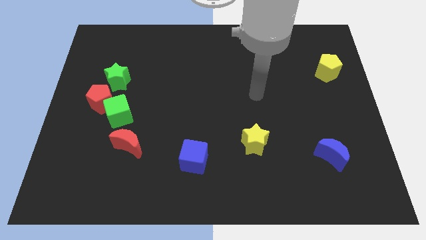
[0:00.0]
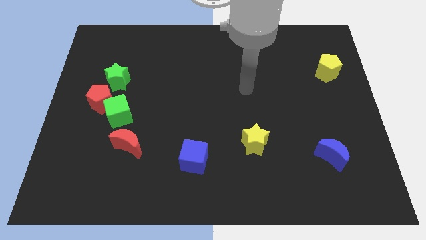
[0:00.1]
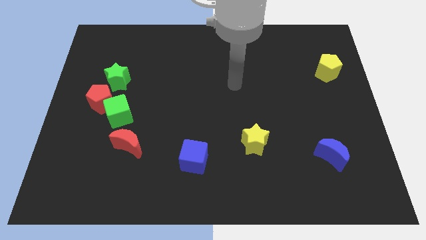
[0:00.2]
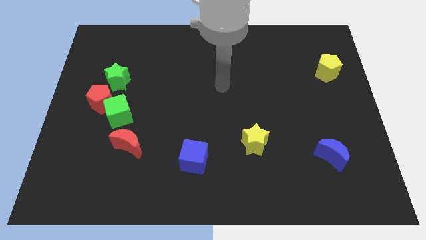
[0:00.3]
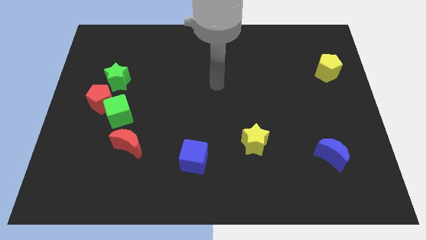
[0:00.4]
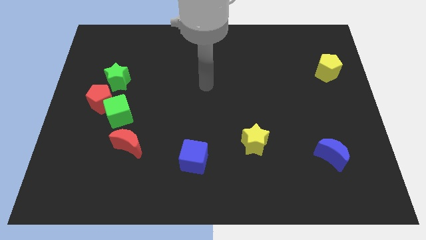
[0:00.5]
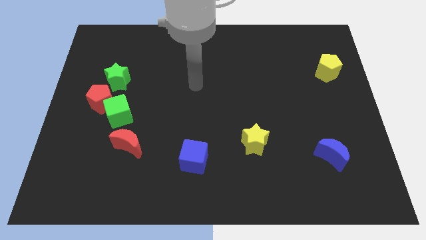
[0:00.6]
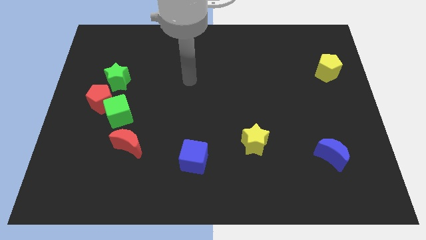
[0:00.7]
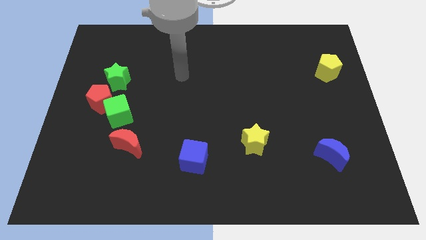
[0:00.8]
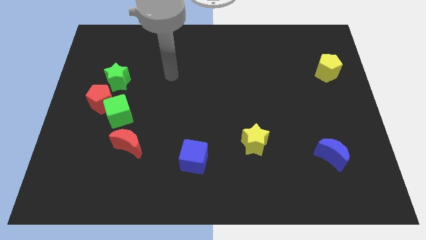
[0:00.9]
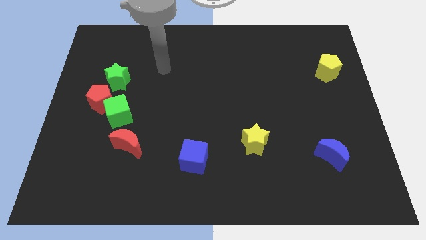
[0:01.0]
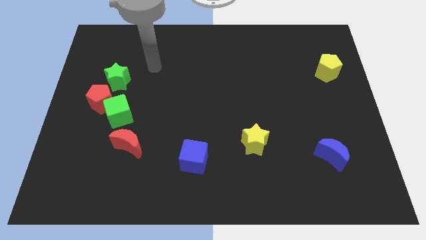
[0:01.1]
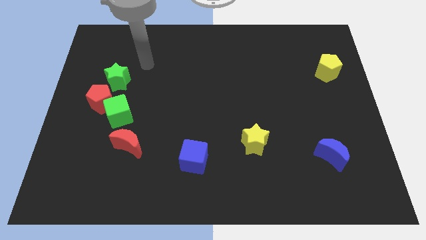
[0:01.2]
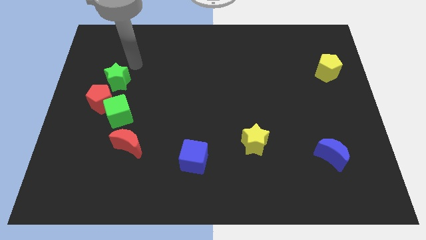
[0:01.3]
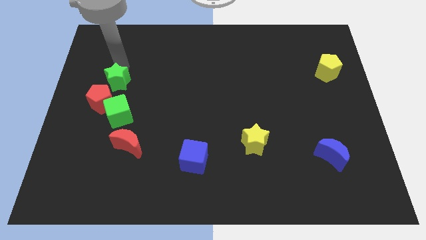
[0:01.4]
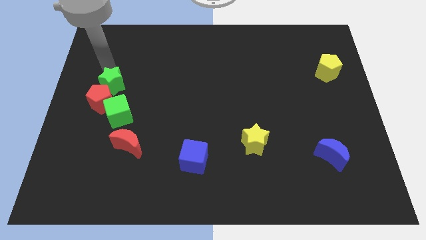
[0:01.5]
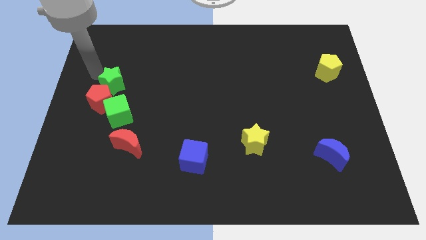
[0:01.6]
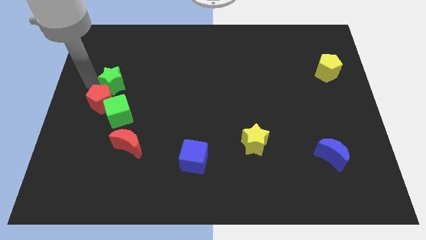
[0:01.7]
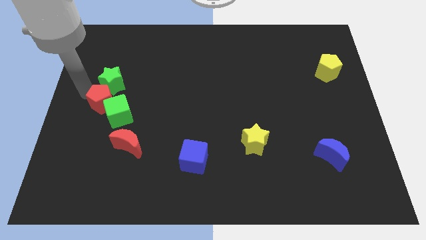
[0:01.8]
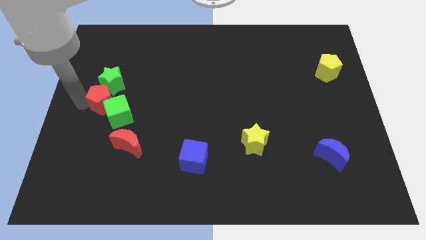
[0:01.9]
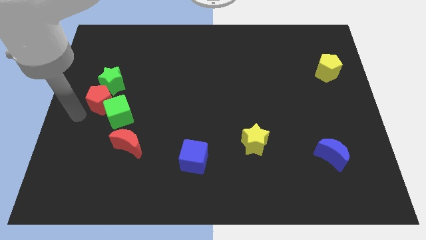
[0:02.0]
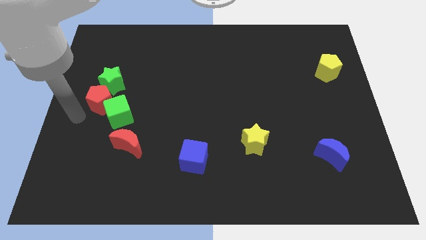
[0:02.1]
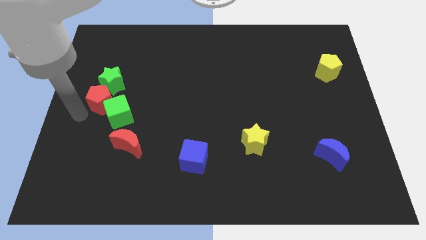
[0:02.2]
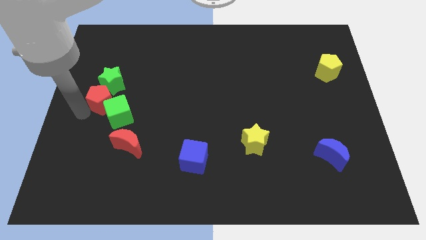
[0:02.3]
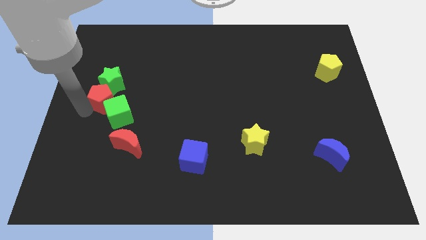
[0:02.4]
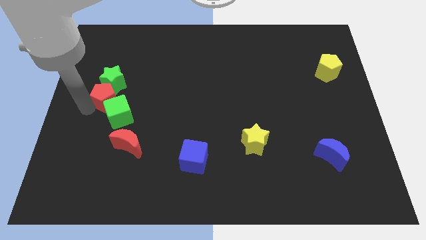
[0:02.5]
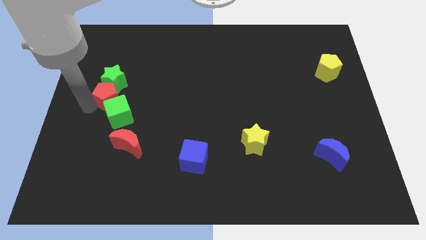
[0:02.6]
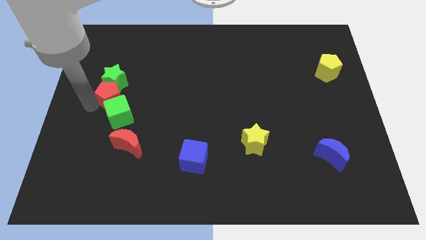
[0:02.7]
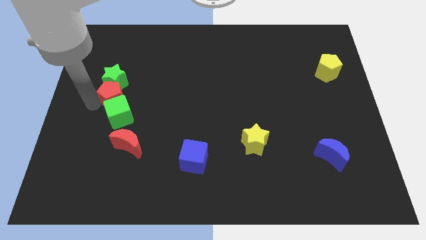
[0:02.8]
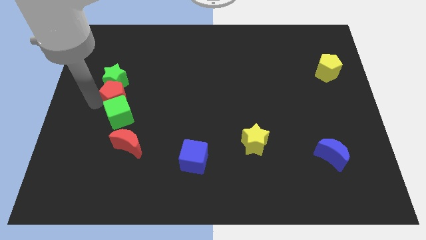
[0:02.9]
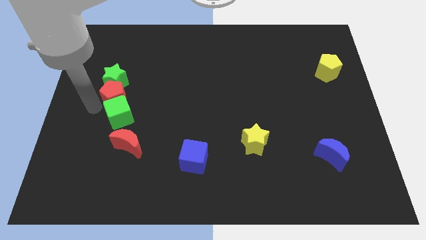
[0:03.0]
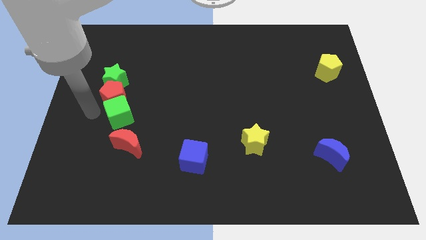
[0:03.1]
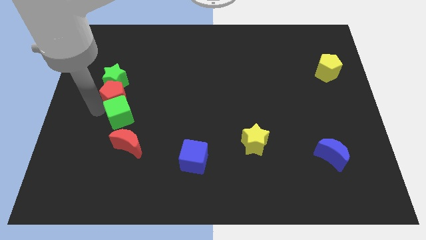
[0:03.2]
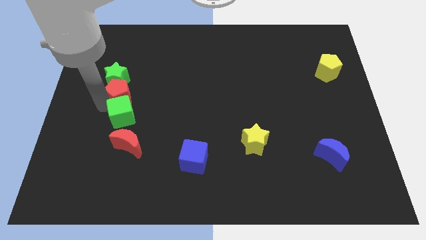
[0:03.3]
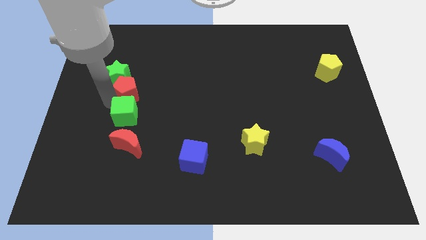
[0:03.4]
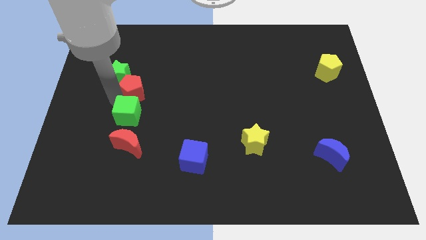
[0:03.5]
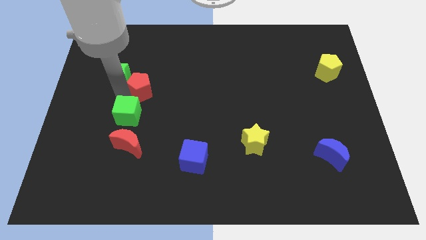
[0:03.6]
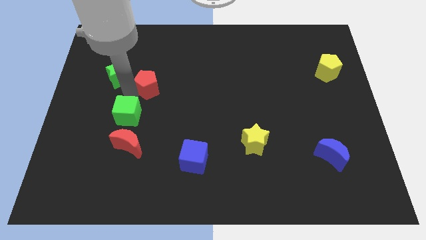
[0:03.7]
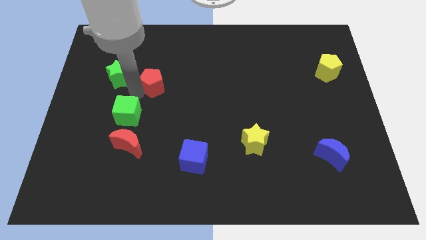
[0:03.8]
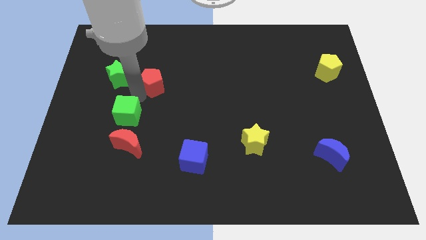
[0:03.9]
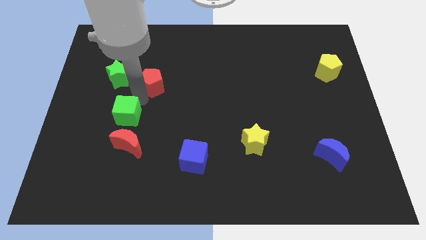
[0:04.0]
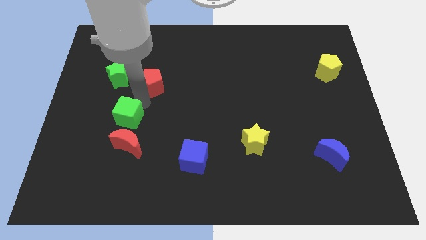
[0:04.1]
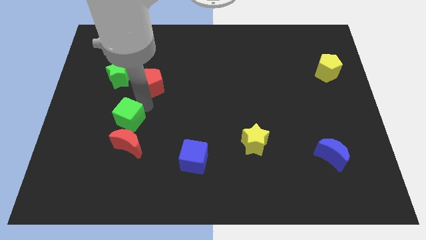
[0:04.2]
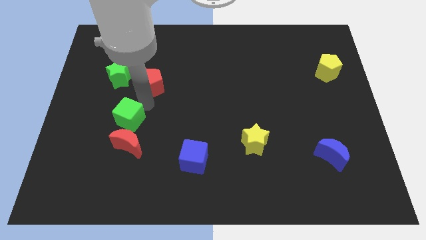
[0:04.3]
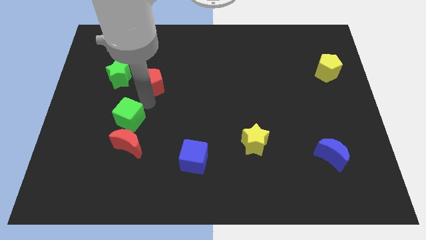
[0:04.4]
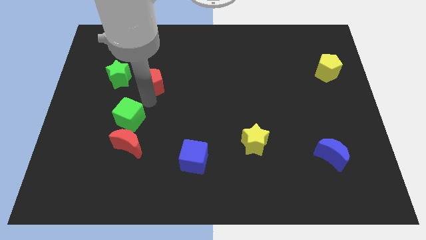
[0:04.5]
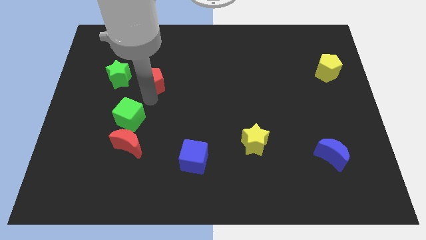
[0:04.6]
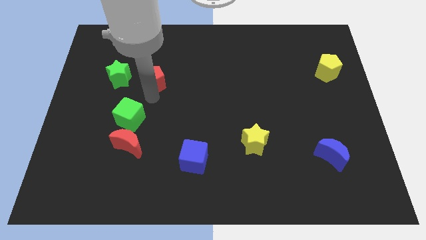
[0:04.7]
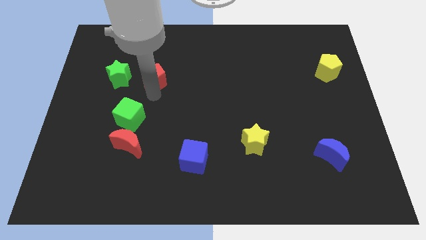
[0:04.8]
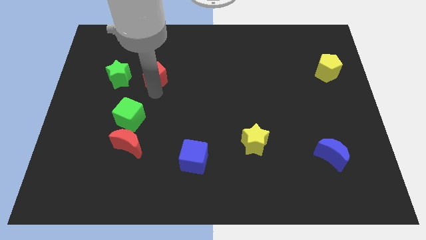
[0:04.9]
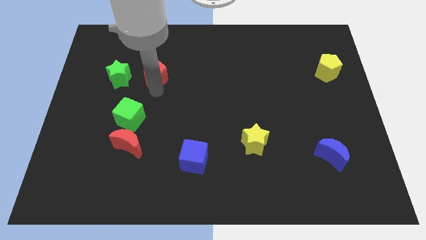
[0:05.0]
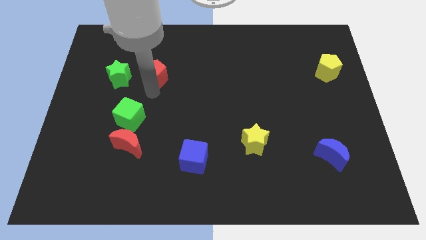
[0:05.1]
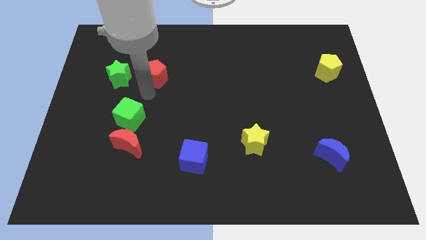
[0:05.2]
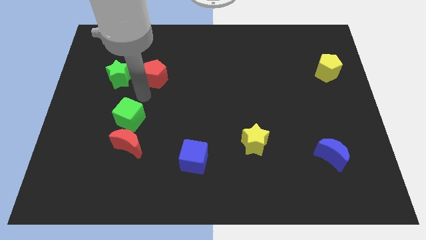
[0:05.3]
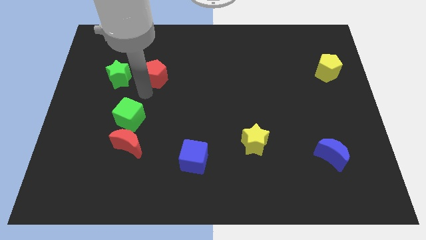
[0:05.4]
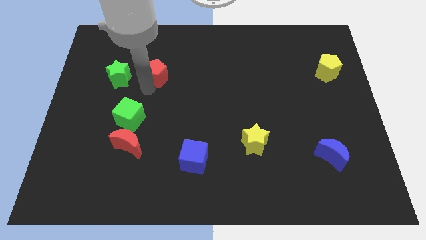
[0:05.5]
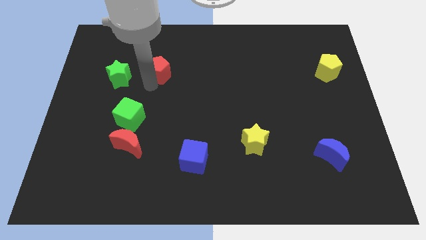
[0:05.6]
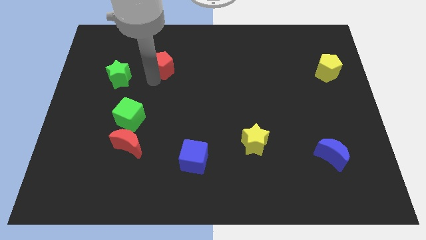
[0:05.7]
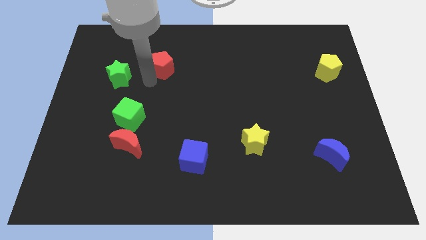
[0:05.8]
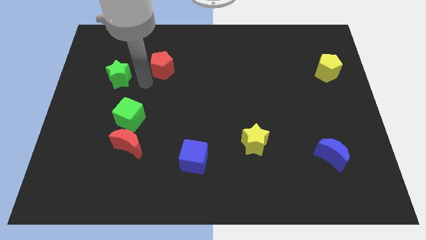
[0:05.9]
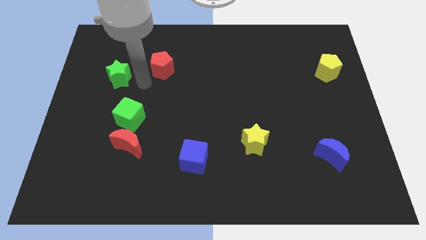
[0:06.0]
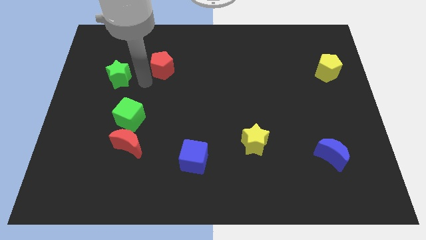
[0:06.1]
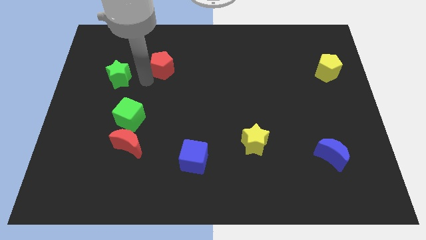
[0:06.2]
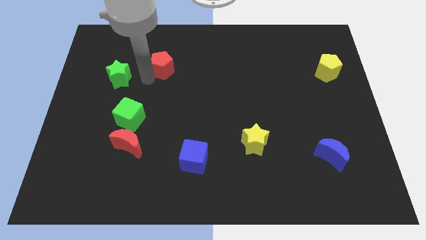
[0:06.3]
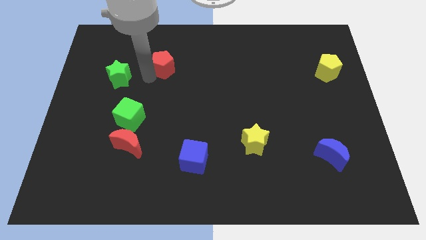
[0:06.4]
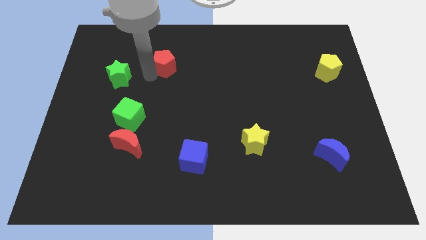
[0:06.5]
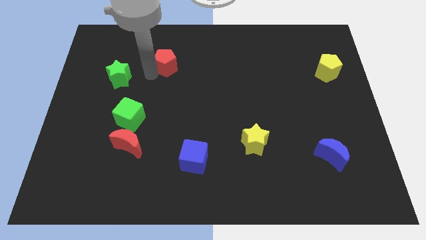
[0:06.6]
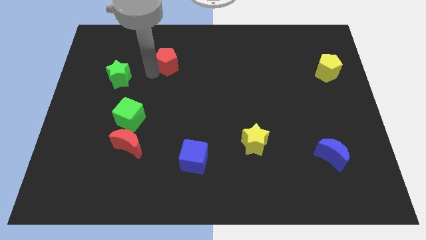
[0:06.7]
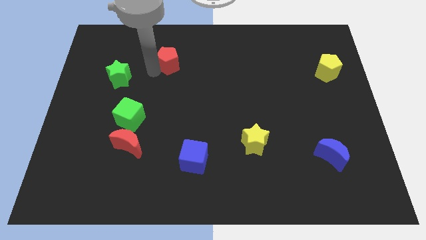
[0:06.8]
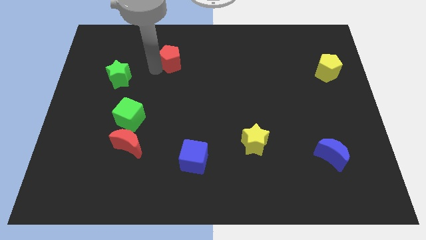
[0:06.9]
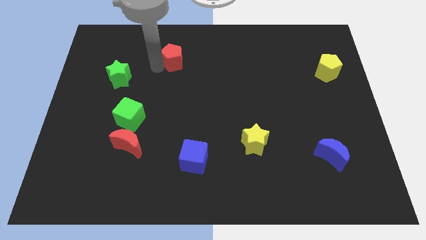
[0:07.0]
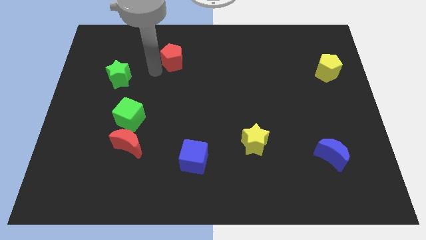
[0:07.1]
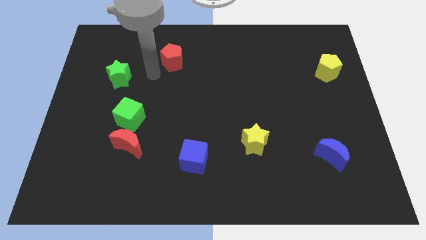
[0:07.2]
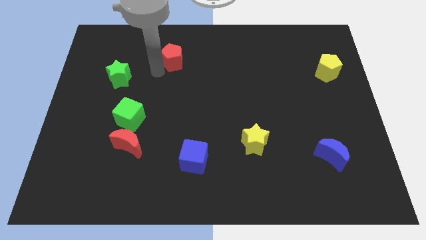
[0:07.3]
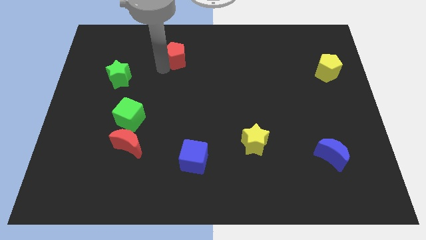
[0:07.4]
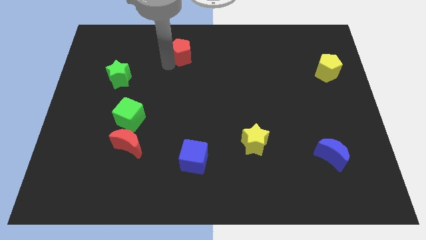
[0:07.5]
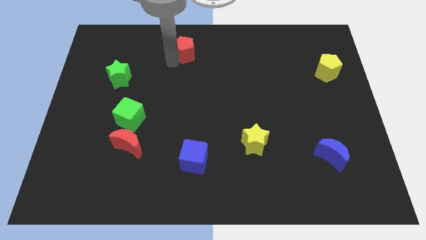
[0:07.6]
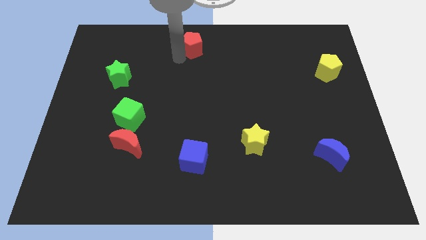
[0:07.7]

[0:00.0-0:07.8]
move the red pentagon to the top side
